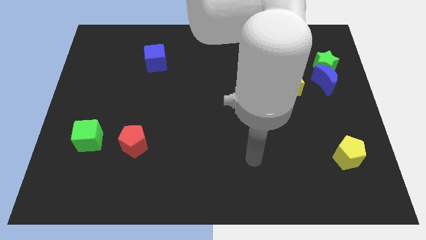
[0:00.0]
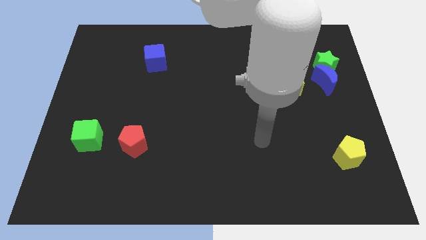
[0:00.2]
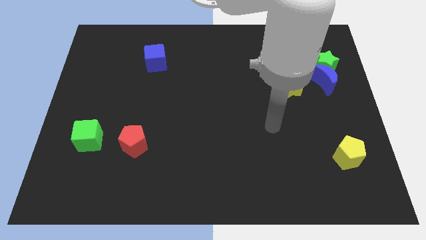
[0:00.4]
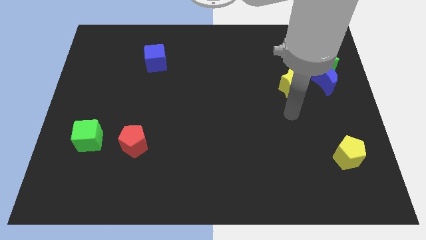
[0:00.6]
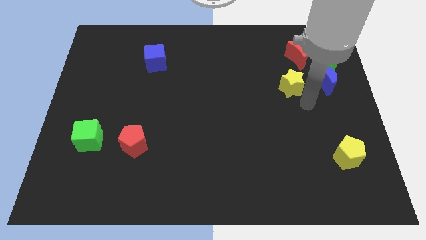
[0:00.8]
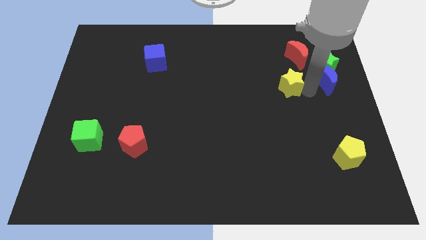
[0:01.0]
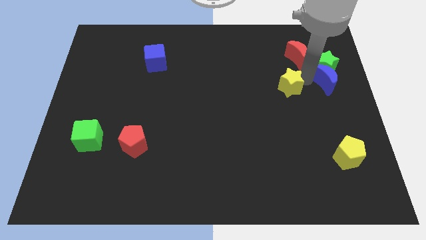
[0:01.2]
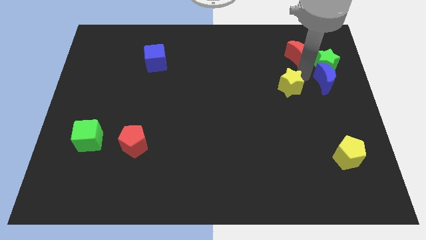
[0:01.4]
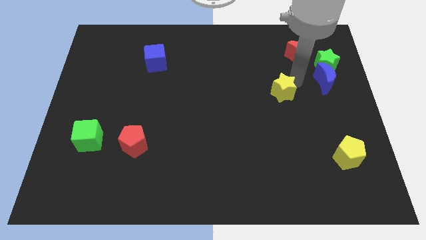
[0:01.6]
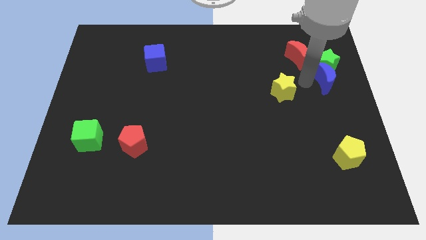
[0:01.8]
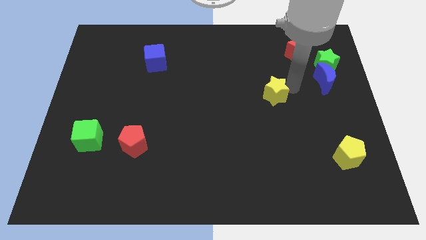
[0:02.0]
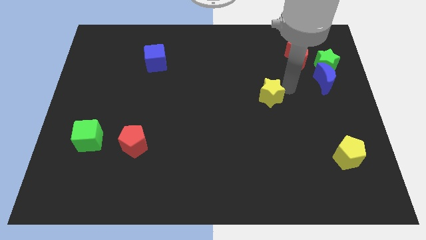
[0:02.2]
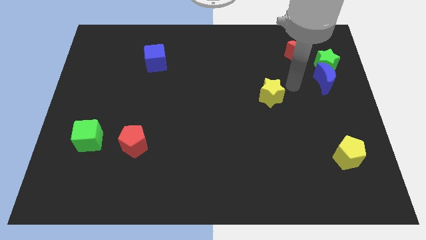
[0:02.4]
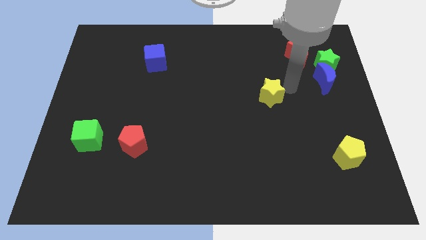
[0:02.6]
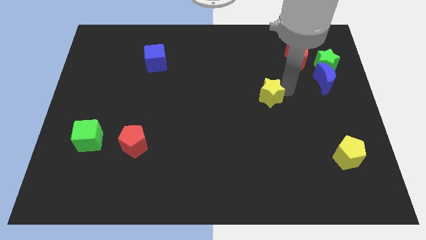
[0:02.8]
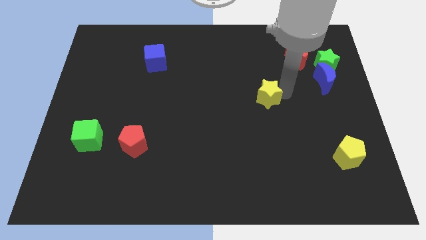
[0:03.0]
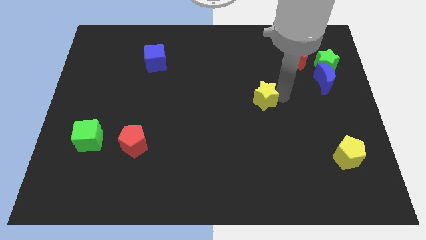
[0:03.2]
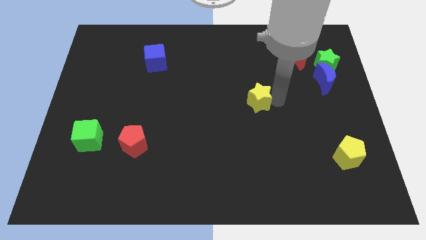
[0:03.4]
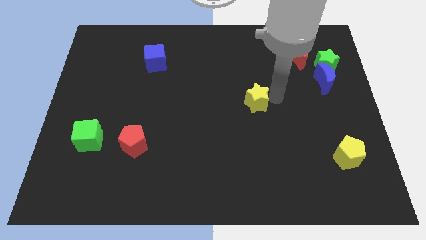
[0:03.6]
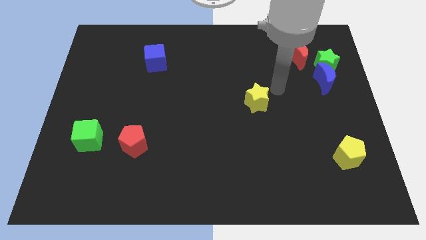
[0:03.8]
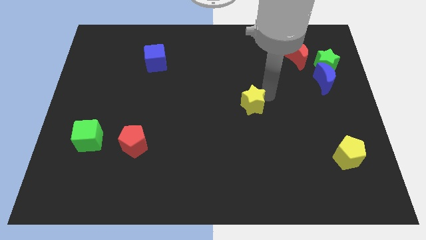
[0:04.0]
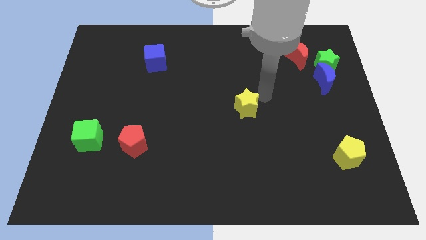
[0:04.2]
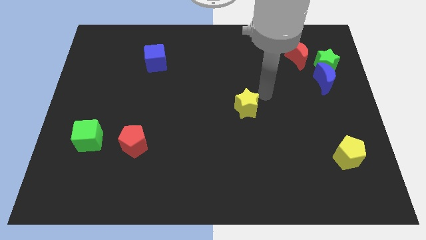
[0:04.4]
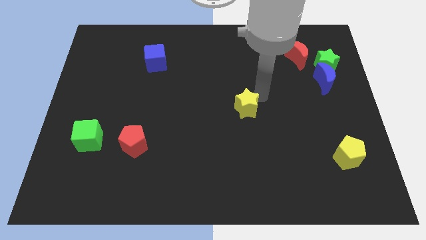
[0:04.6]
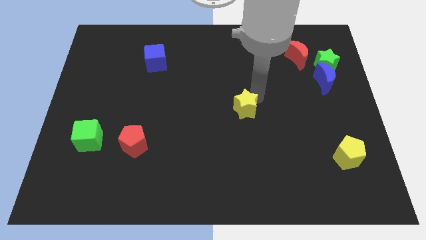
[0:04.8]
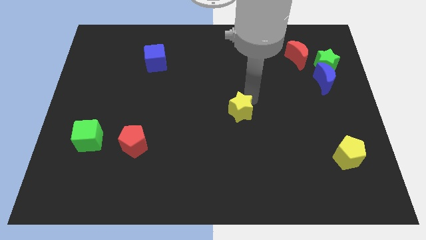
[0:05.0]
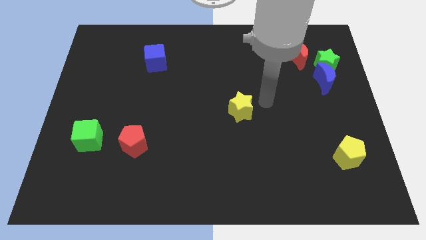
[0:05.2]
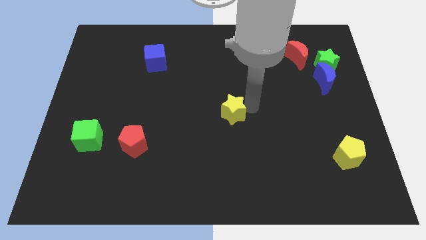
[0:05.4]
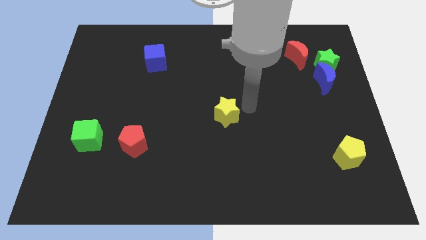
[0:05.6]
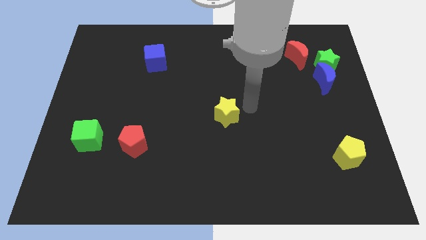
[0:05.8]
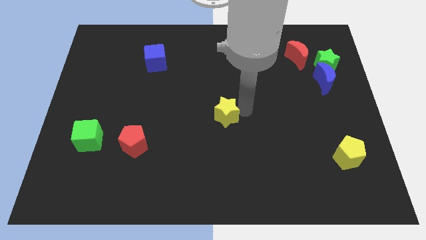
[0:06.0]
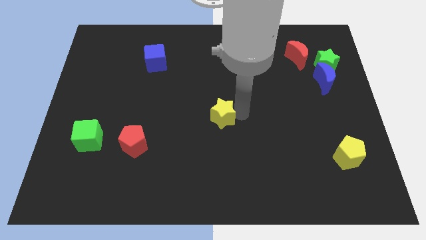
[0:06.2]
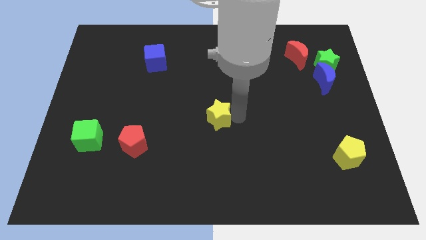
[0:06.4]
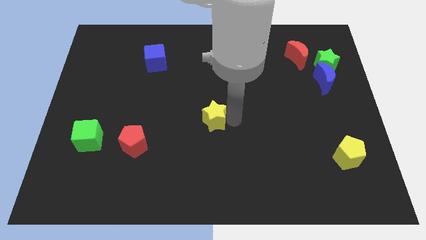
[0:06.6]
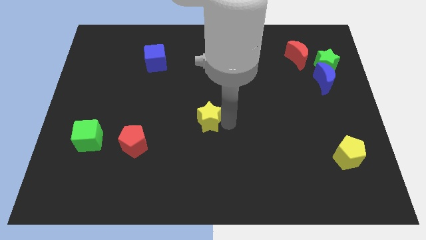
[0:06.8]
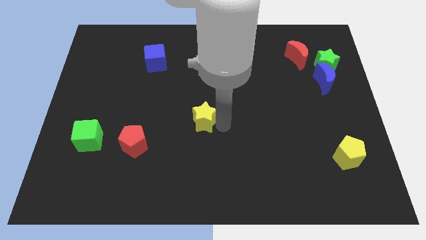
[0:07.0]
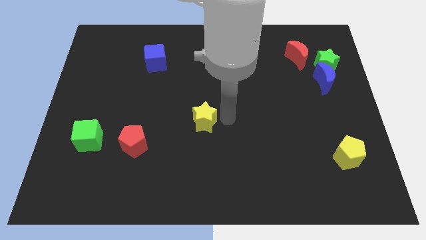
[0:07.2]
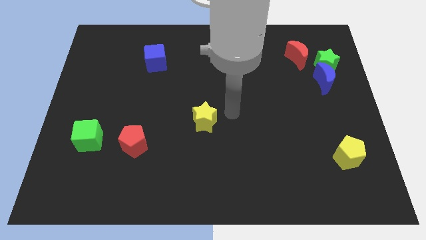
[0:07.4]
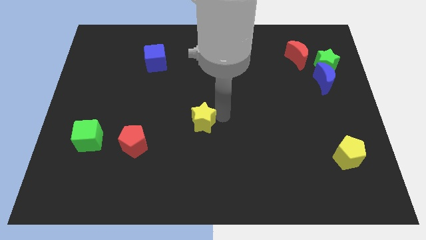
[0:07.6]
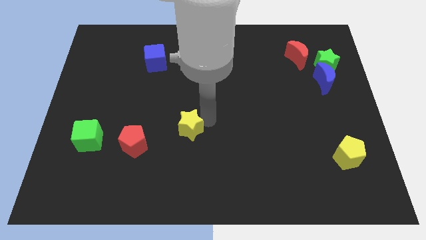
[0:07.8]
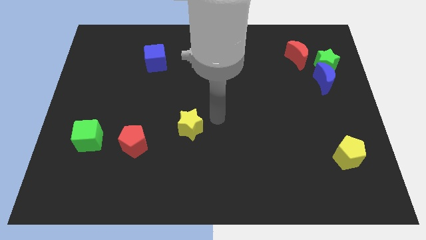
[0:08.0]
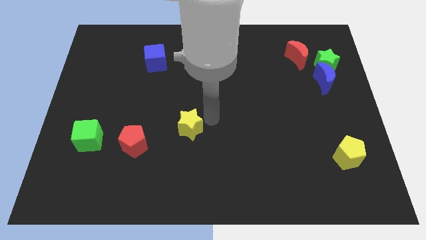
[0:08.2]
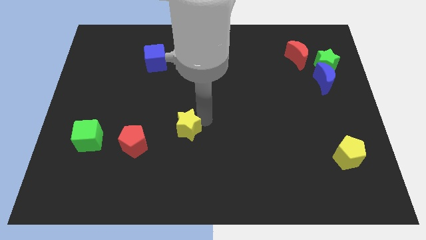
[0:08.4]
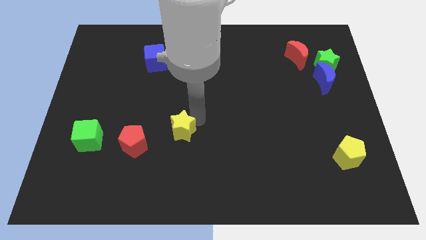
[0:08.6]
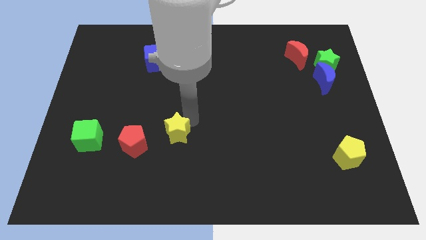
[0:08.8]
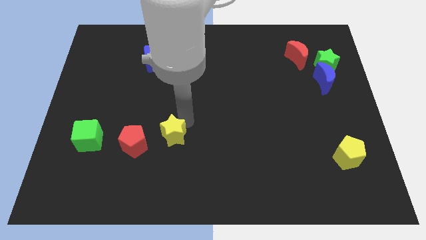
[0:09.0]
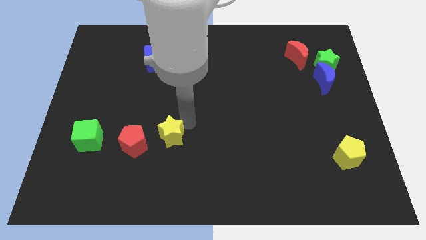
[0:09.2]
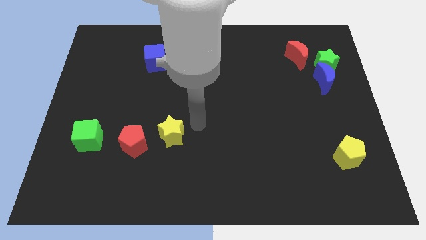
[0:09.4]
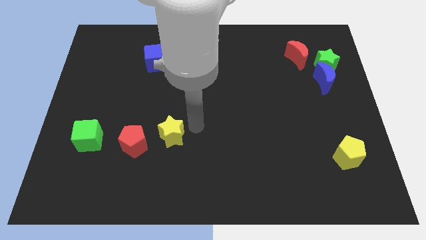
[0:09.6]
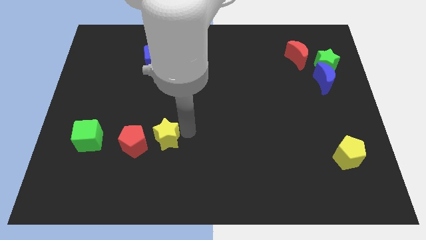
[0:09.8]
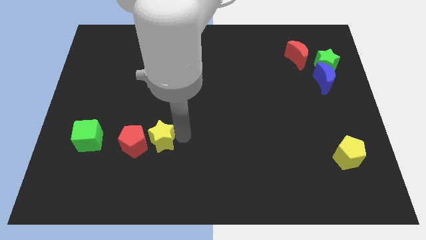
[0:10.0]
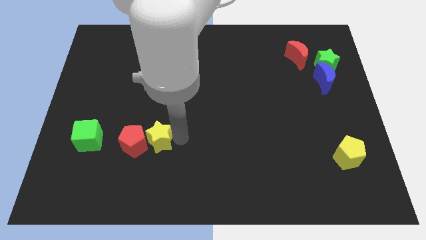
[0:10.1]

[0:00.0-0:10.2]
put the yellow star close to the red pentagon

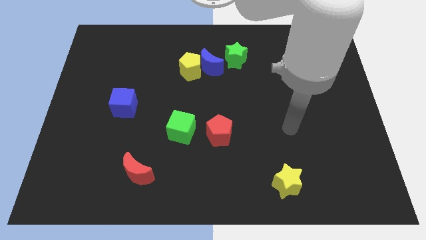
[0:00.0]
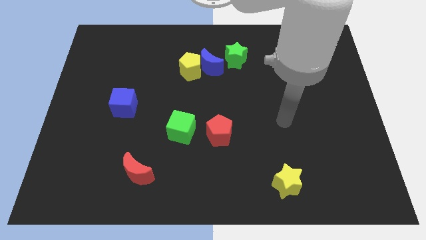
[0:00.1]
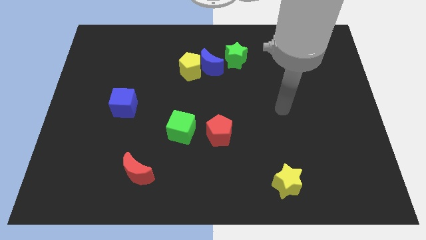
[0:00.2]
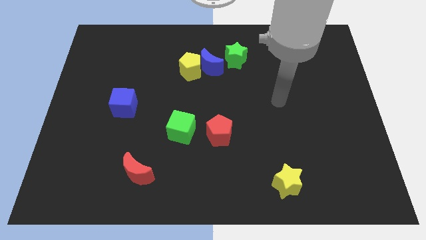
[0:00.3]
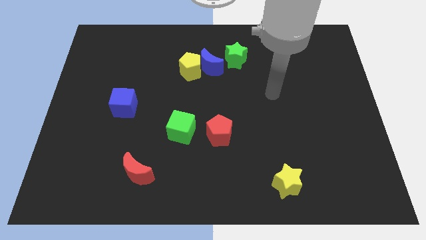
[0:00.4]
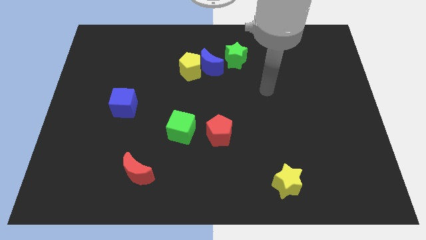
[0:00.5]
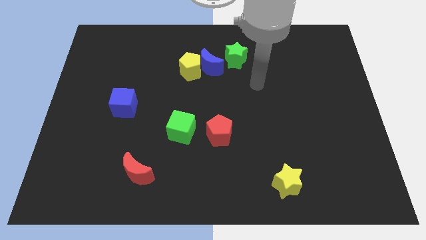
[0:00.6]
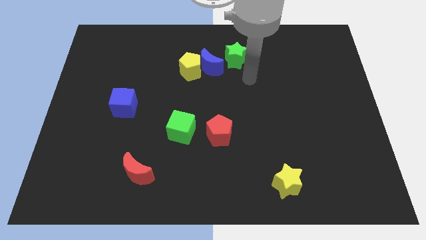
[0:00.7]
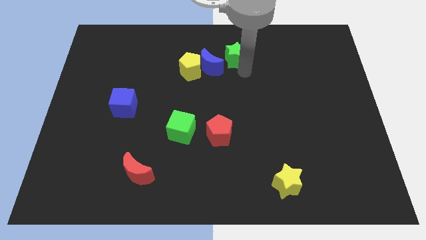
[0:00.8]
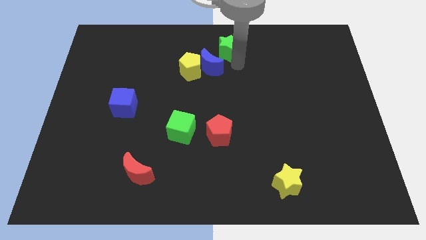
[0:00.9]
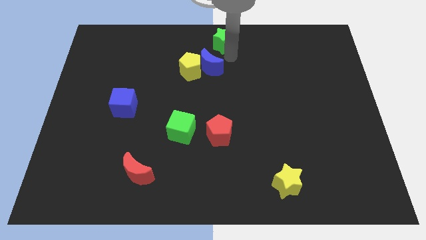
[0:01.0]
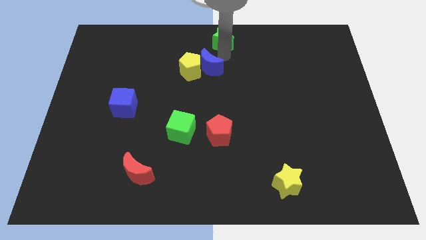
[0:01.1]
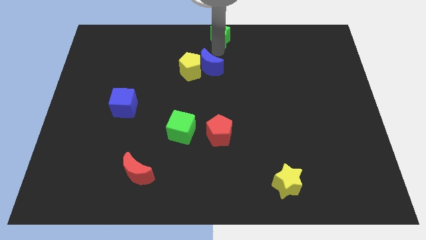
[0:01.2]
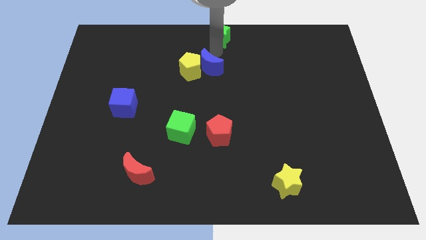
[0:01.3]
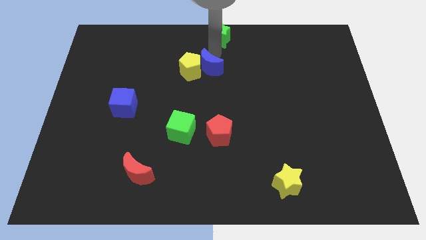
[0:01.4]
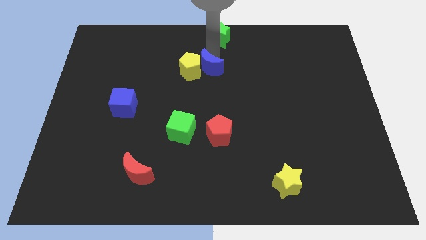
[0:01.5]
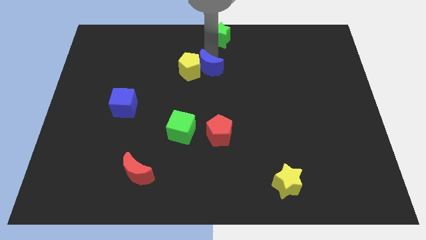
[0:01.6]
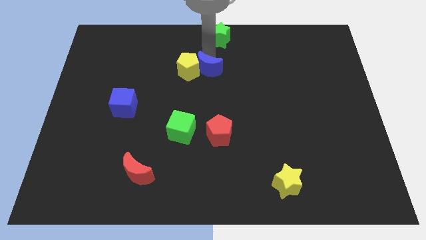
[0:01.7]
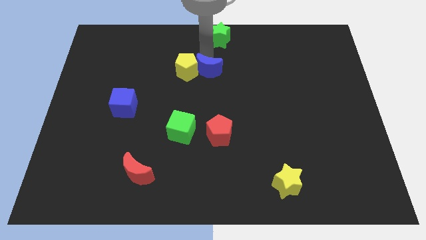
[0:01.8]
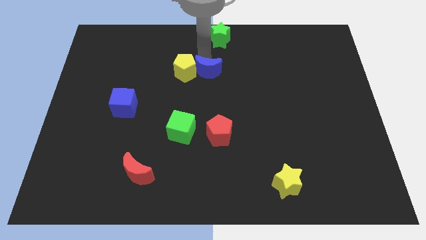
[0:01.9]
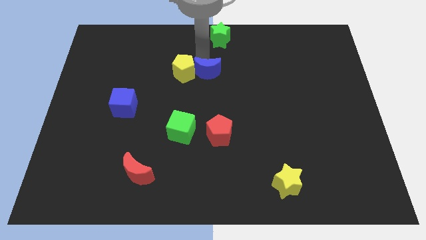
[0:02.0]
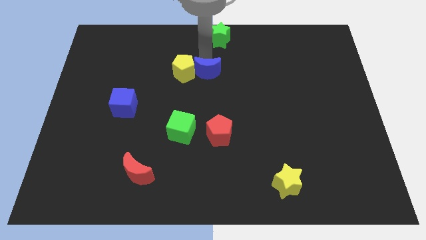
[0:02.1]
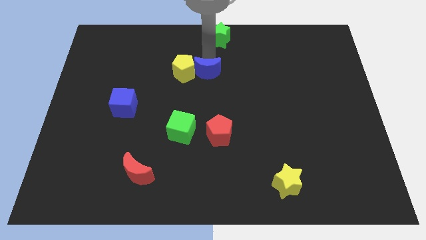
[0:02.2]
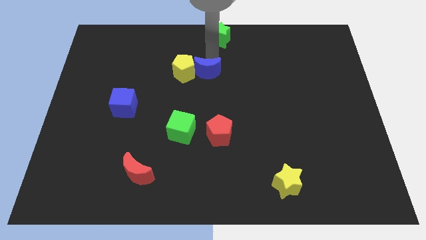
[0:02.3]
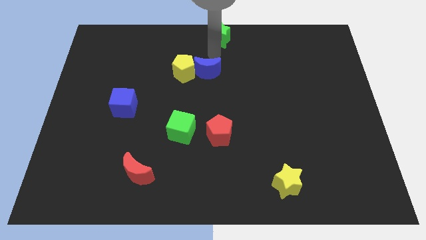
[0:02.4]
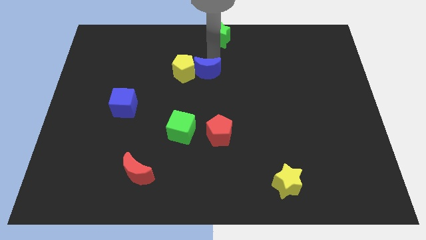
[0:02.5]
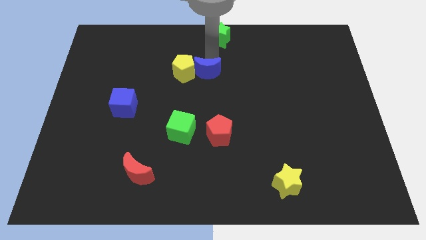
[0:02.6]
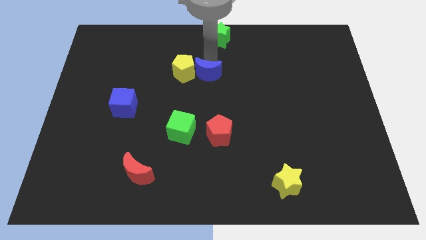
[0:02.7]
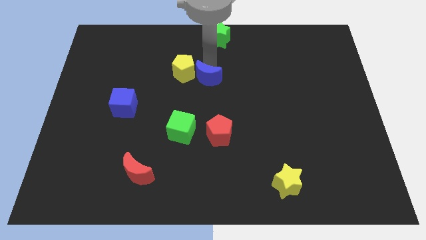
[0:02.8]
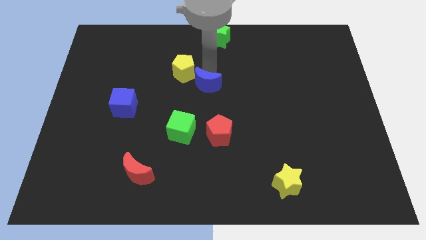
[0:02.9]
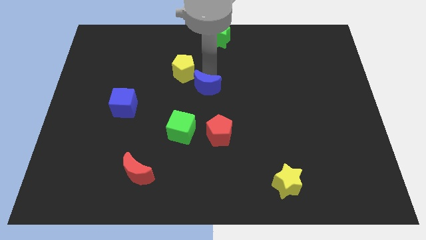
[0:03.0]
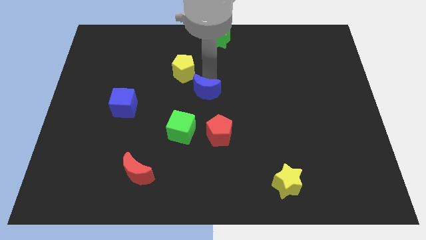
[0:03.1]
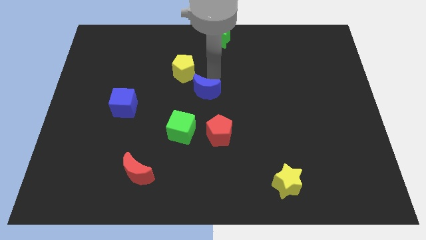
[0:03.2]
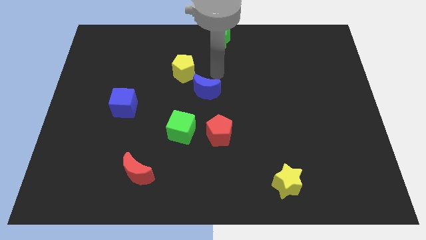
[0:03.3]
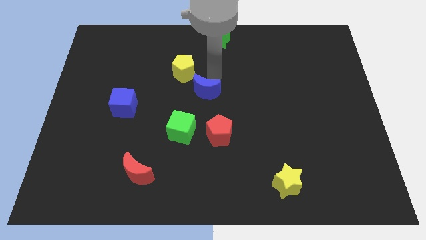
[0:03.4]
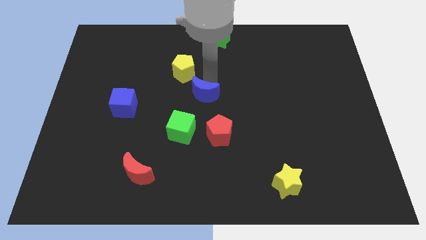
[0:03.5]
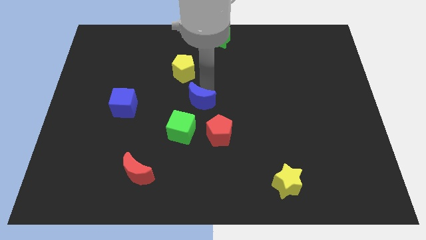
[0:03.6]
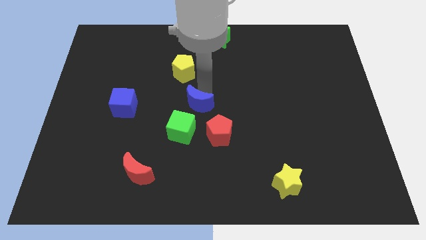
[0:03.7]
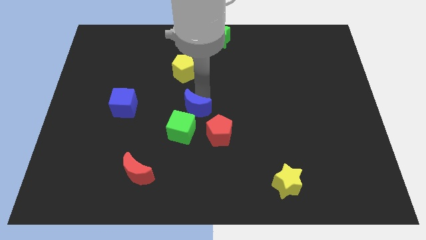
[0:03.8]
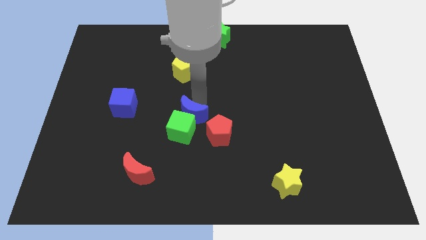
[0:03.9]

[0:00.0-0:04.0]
push the blue moon close to the green cube
